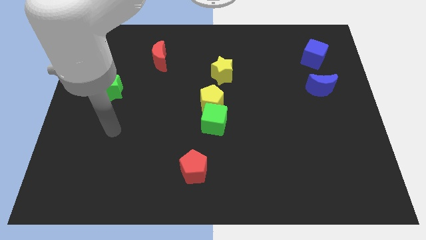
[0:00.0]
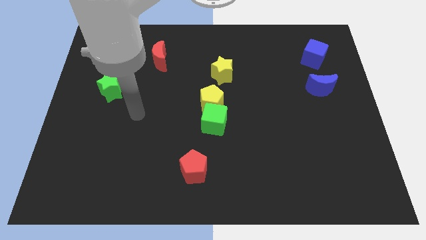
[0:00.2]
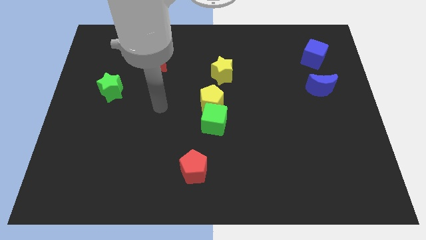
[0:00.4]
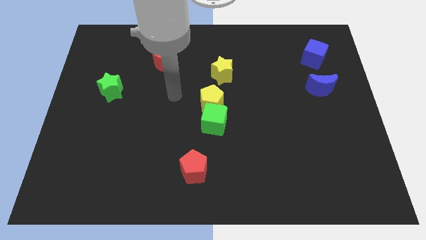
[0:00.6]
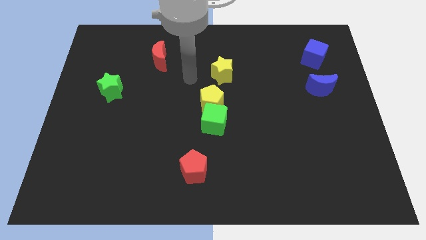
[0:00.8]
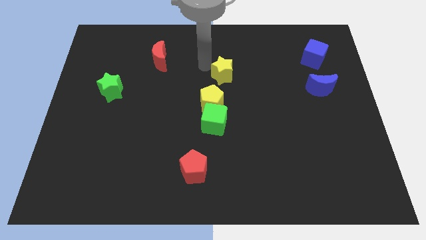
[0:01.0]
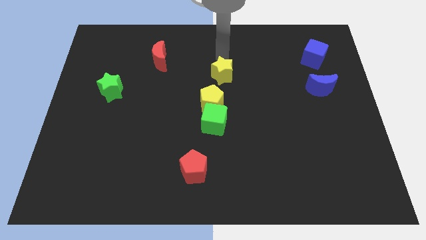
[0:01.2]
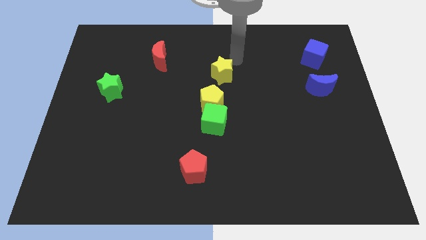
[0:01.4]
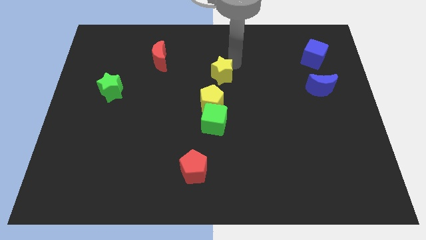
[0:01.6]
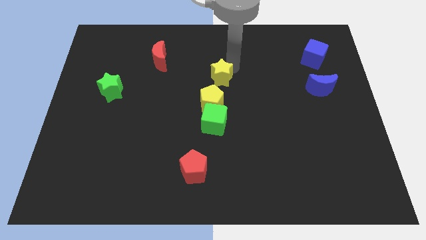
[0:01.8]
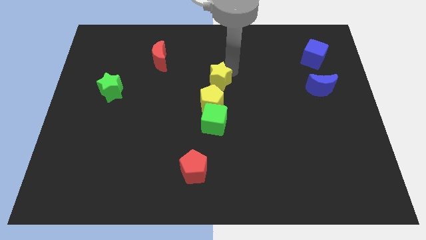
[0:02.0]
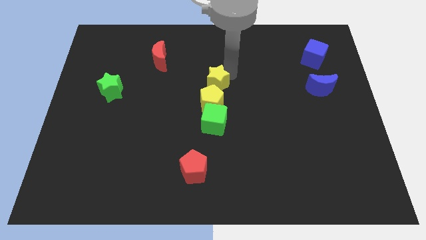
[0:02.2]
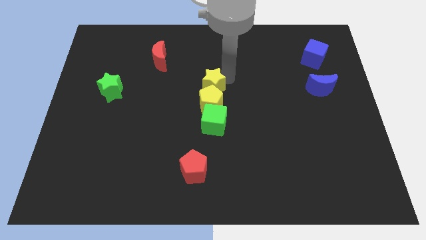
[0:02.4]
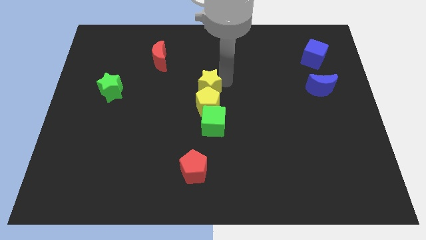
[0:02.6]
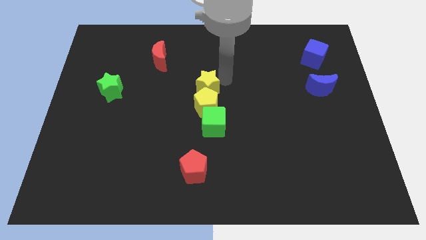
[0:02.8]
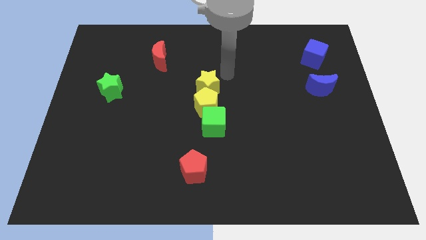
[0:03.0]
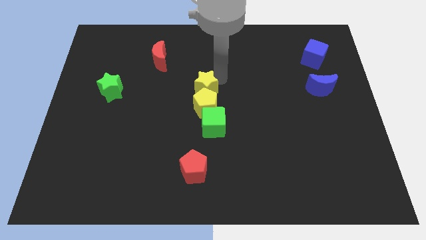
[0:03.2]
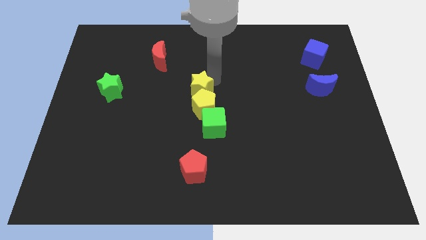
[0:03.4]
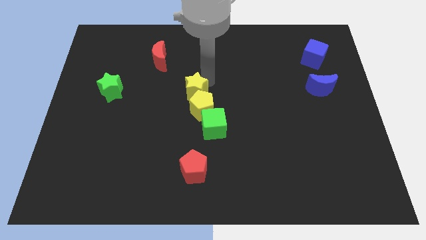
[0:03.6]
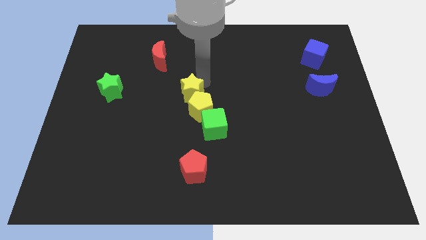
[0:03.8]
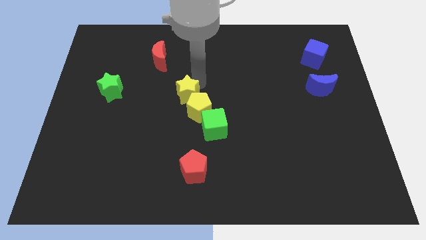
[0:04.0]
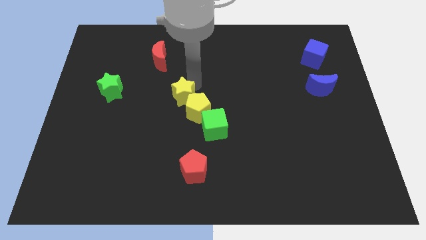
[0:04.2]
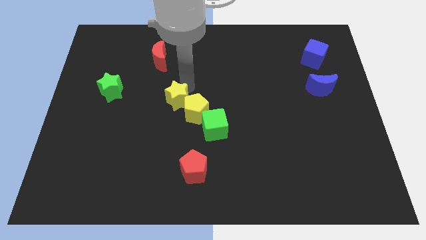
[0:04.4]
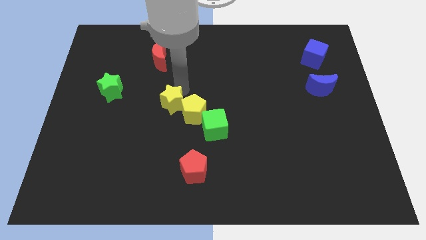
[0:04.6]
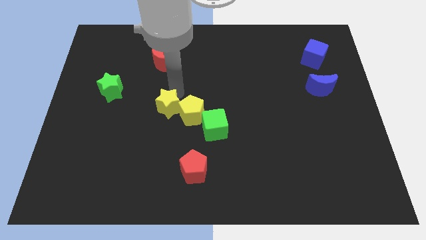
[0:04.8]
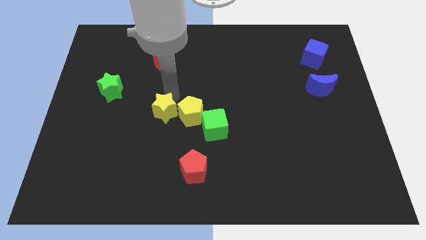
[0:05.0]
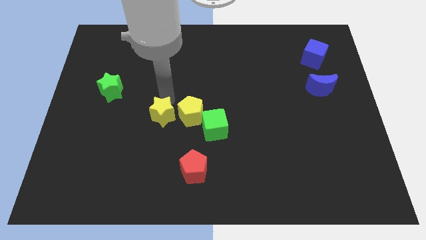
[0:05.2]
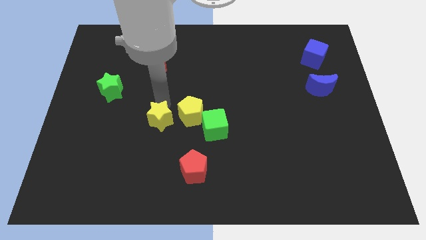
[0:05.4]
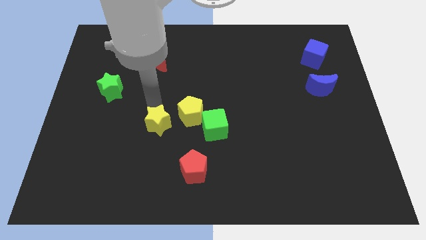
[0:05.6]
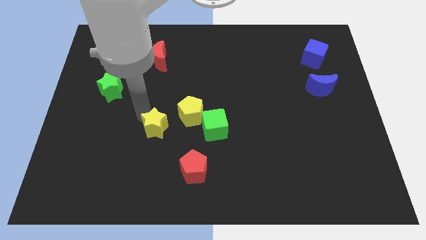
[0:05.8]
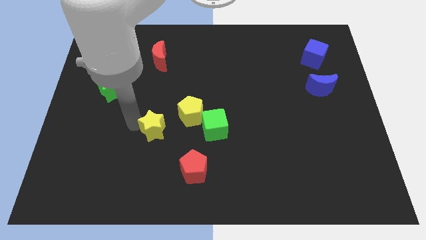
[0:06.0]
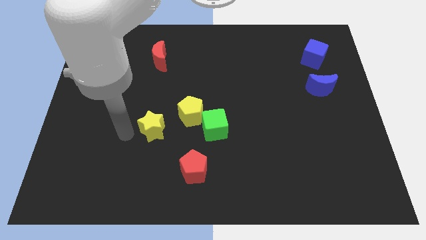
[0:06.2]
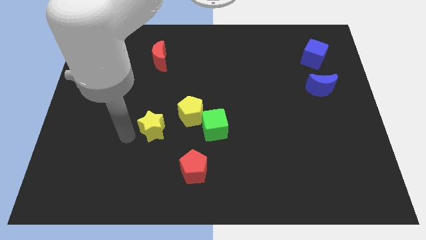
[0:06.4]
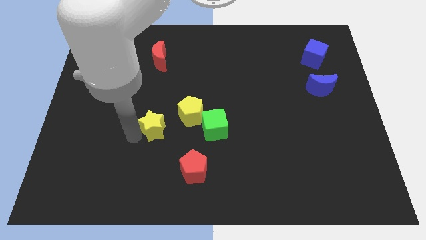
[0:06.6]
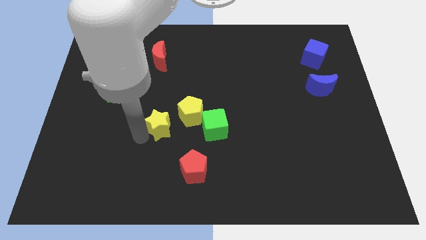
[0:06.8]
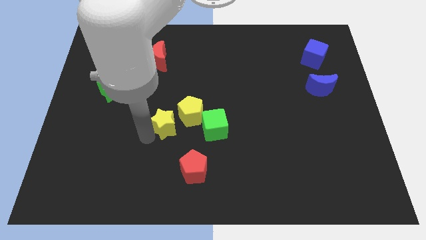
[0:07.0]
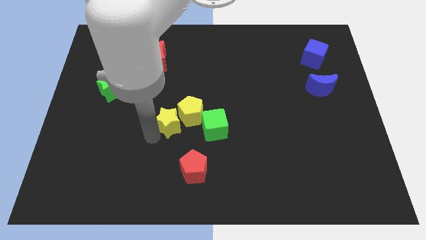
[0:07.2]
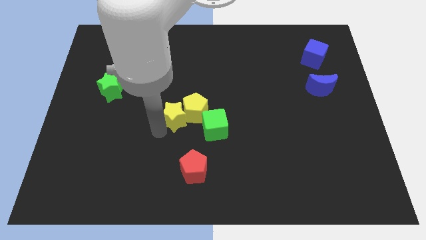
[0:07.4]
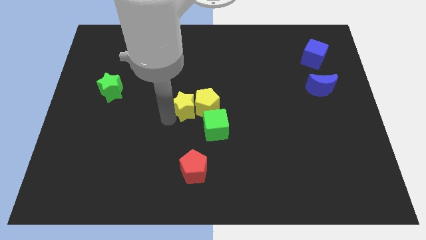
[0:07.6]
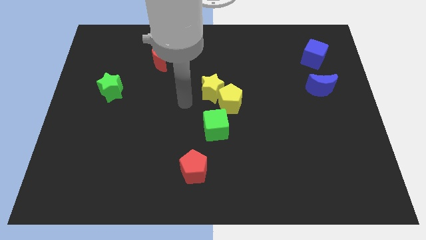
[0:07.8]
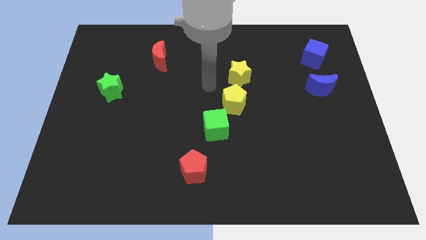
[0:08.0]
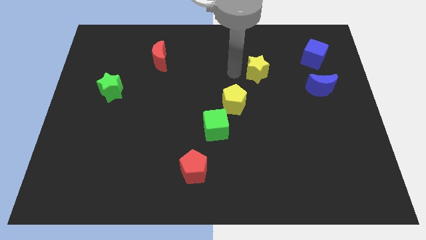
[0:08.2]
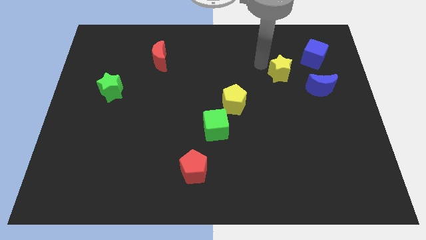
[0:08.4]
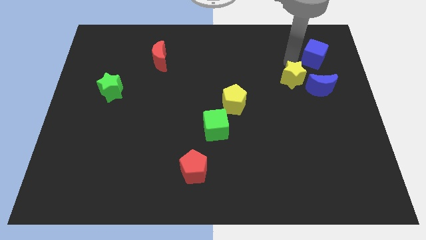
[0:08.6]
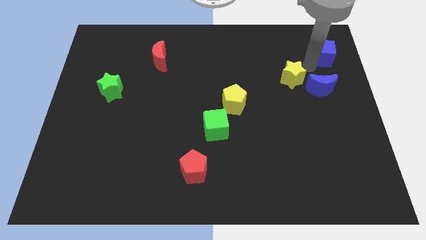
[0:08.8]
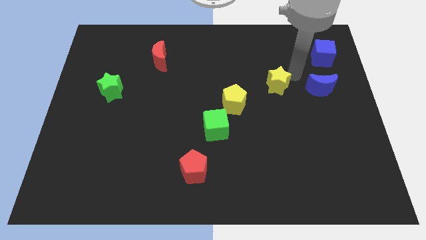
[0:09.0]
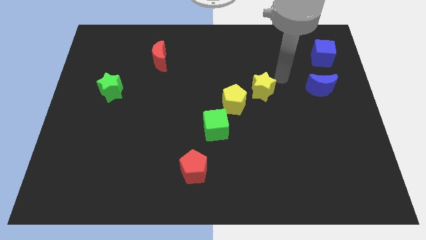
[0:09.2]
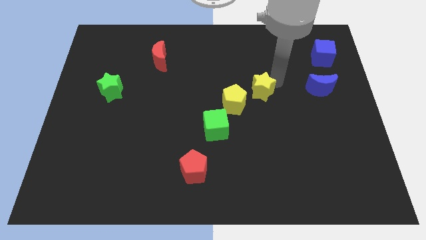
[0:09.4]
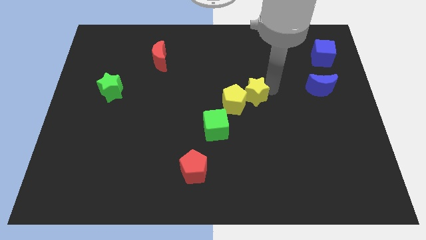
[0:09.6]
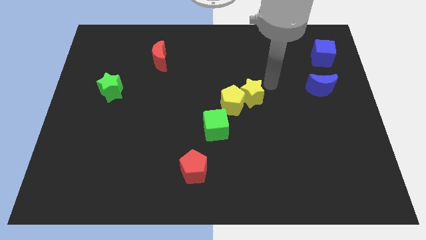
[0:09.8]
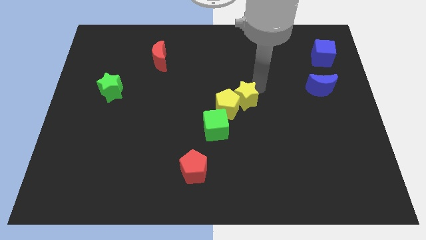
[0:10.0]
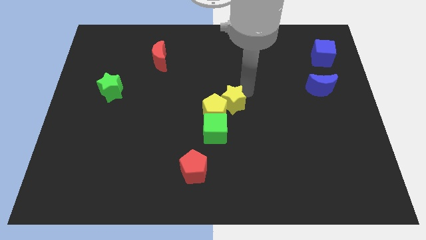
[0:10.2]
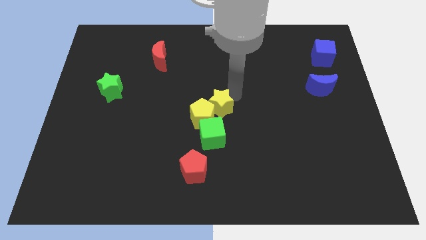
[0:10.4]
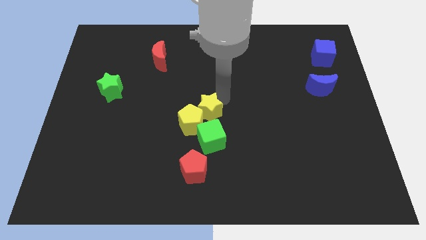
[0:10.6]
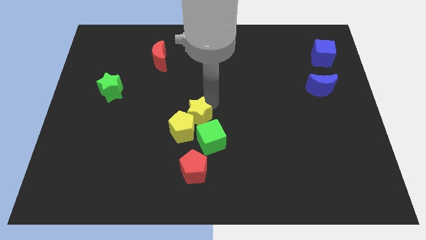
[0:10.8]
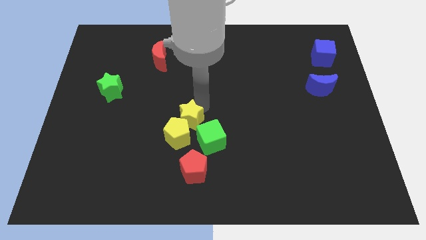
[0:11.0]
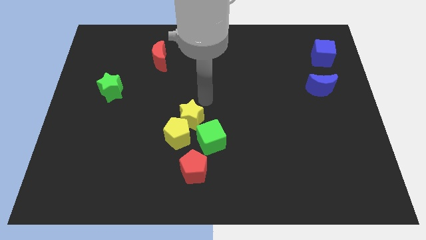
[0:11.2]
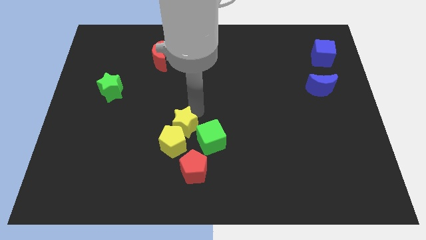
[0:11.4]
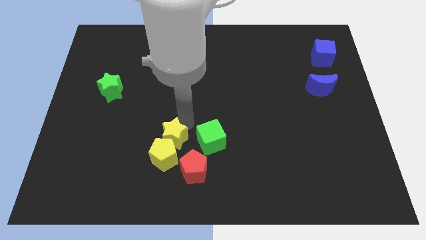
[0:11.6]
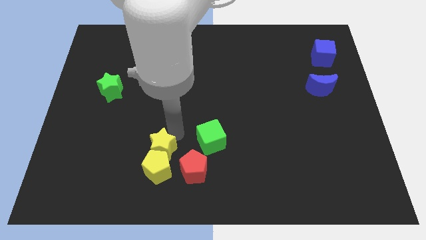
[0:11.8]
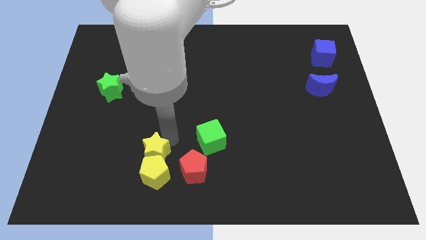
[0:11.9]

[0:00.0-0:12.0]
move the yellow star just left of the red pentagon

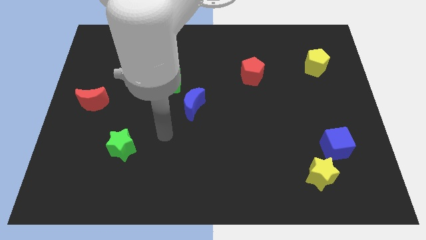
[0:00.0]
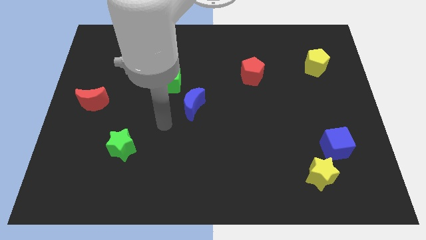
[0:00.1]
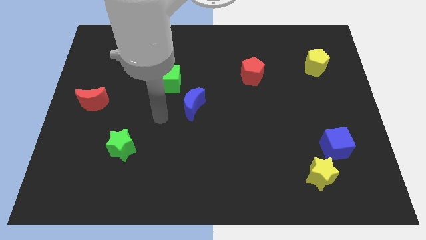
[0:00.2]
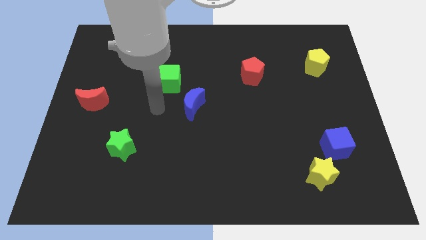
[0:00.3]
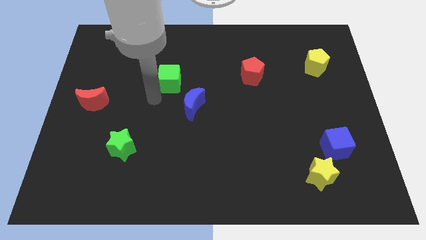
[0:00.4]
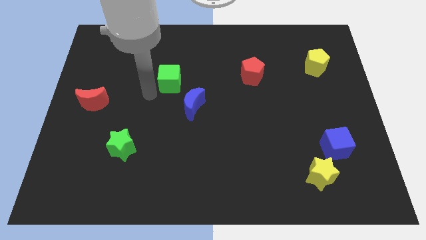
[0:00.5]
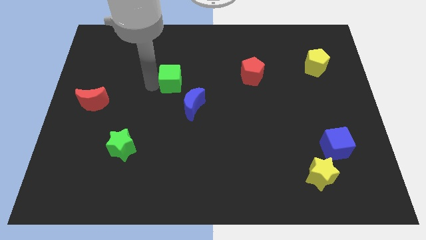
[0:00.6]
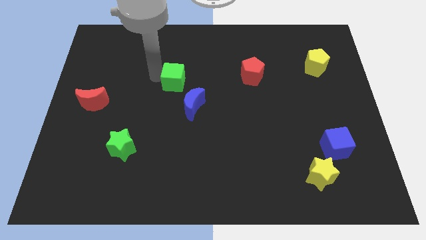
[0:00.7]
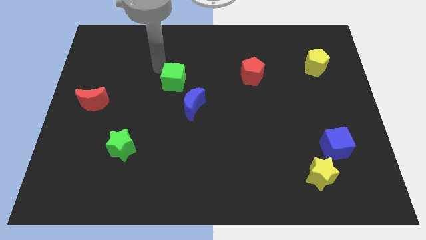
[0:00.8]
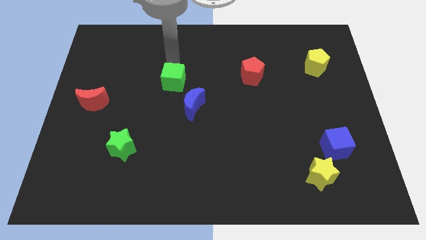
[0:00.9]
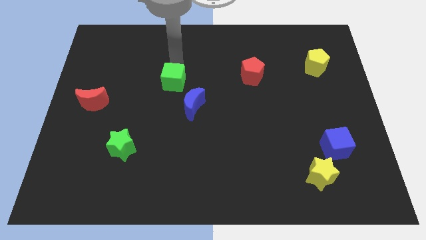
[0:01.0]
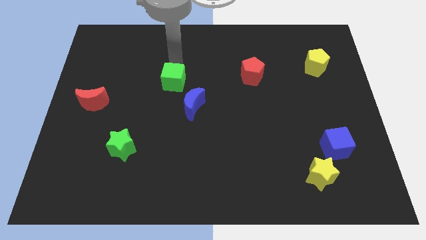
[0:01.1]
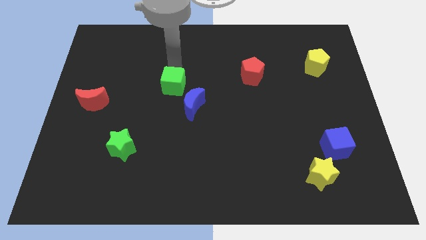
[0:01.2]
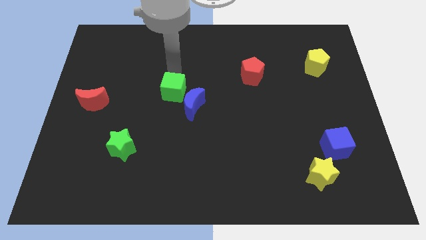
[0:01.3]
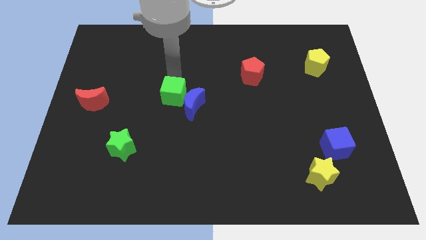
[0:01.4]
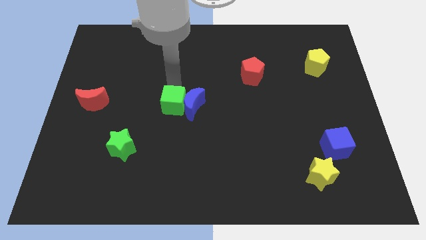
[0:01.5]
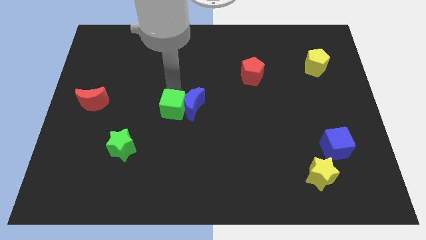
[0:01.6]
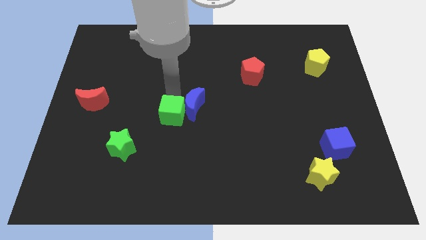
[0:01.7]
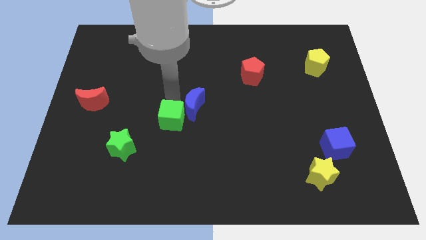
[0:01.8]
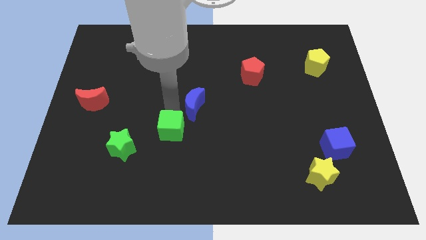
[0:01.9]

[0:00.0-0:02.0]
put the green cube right of the green star
